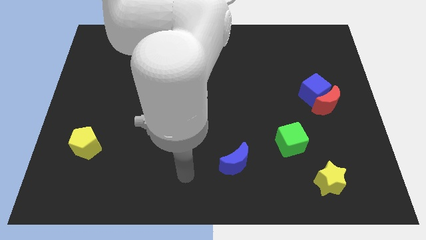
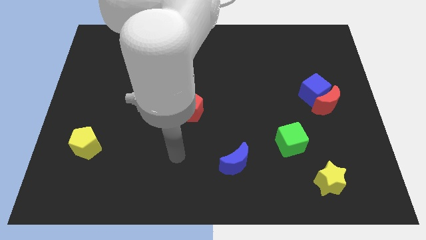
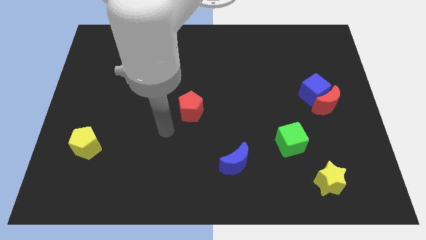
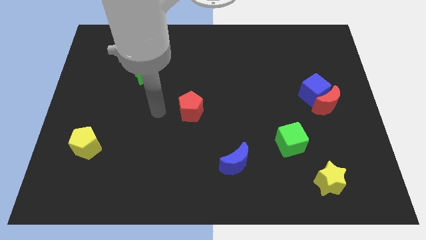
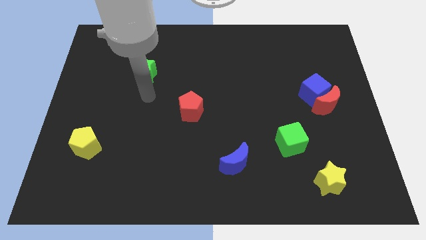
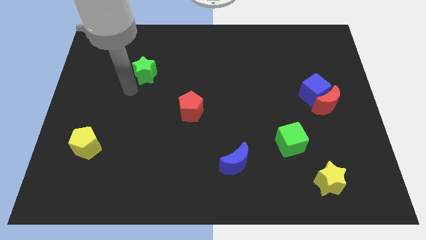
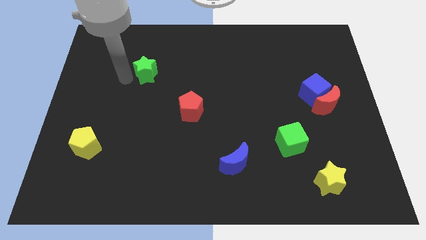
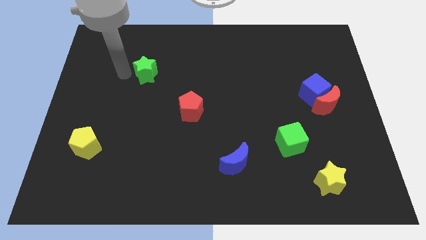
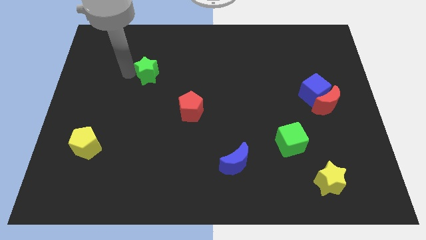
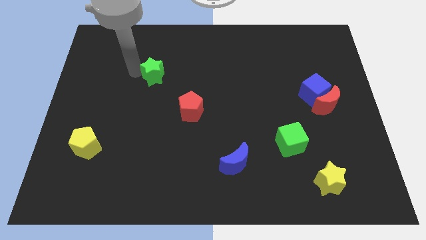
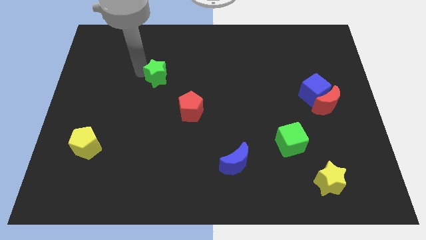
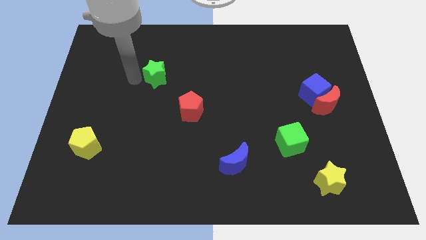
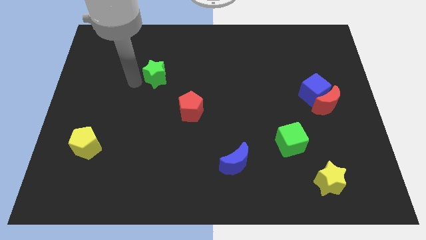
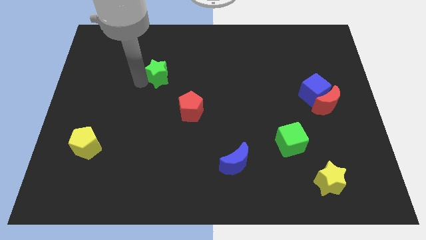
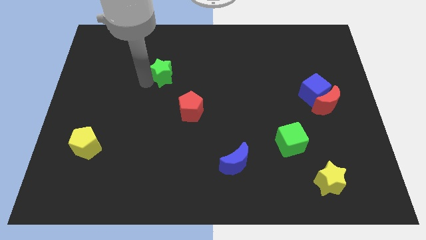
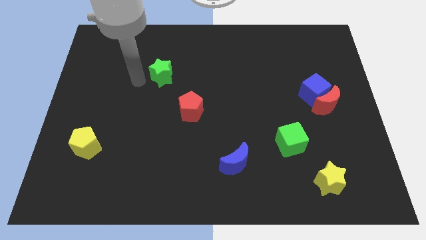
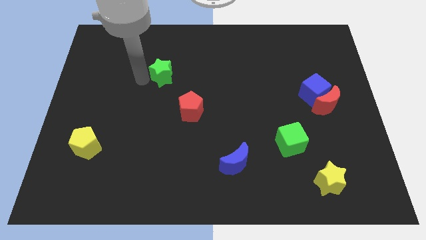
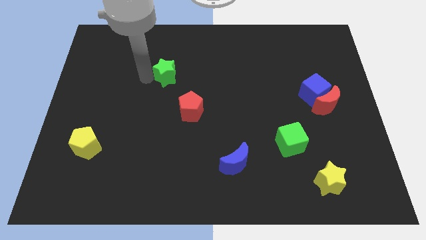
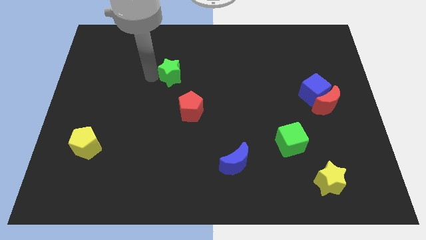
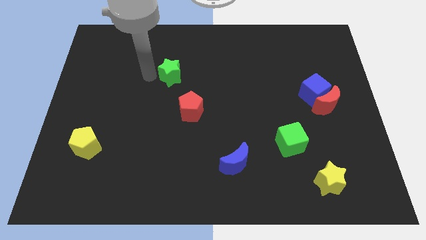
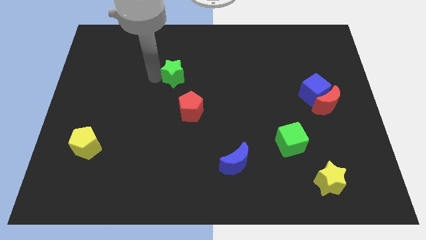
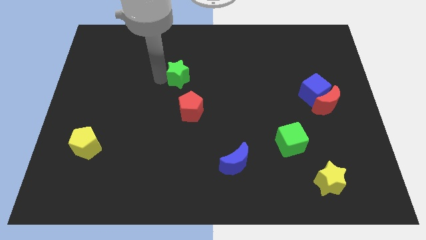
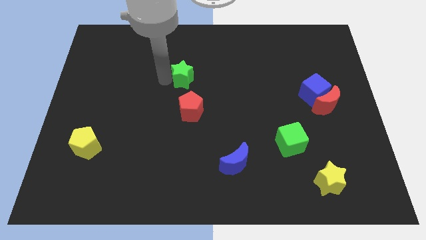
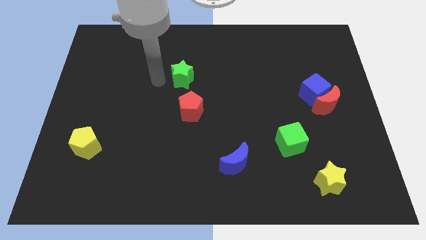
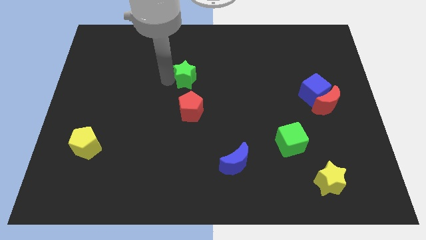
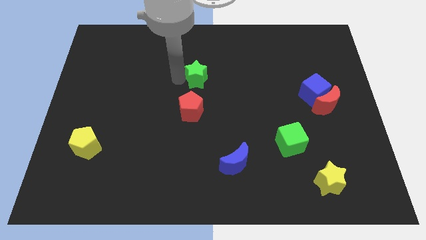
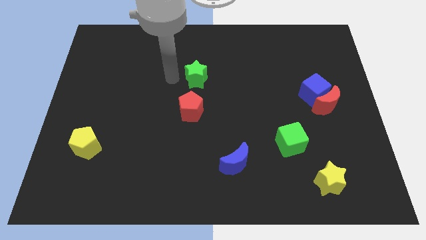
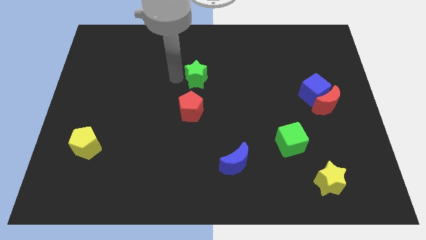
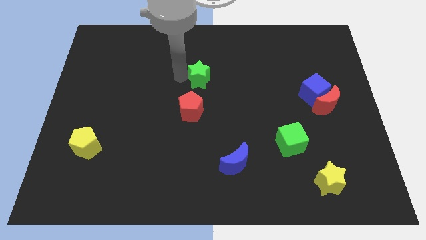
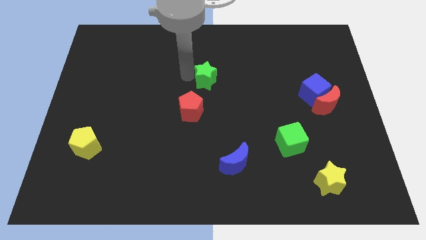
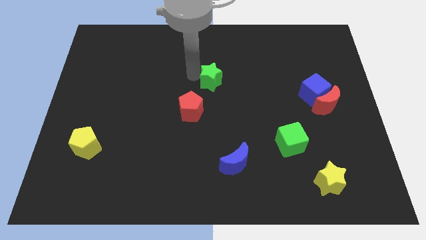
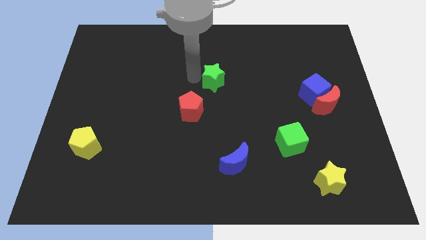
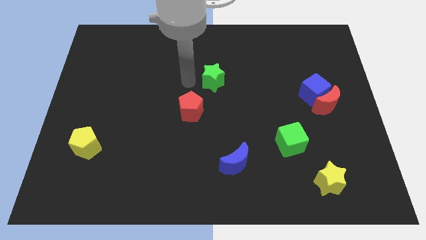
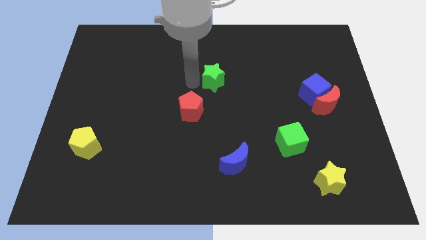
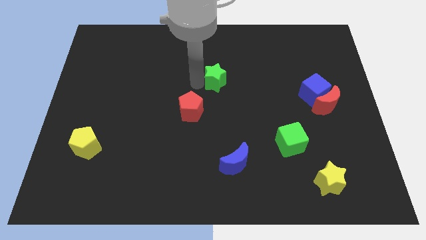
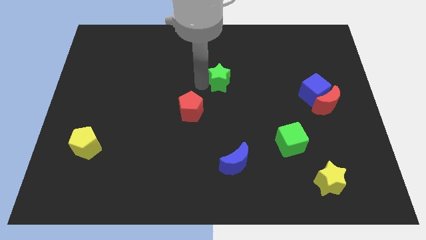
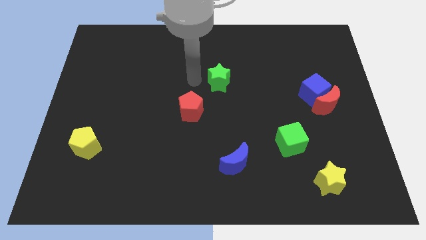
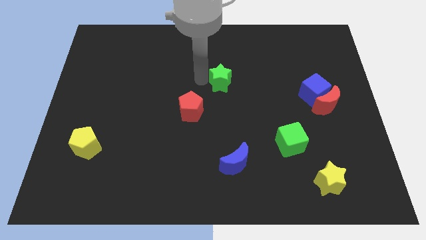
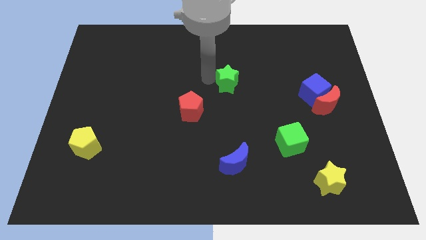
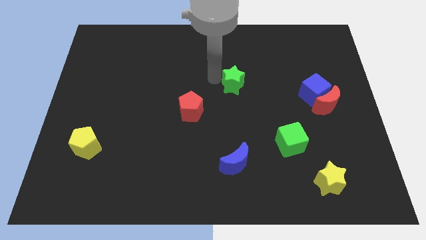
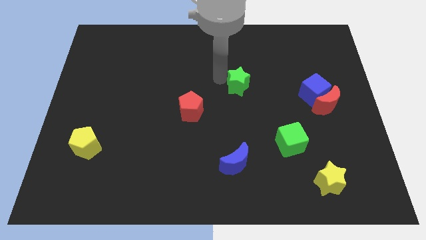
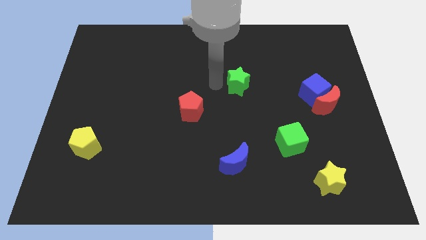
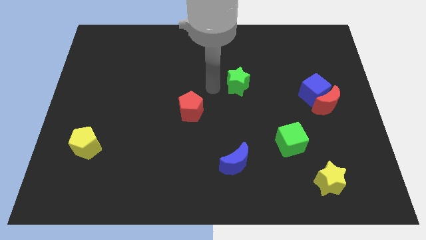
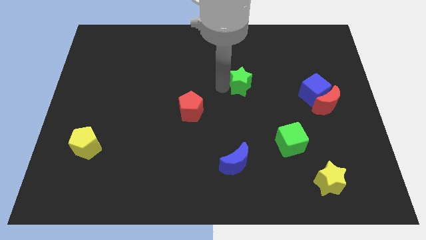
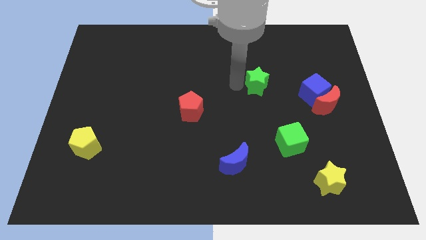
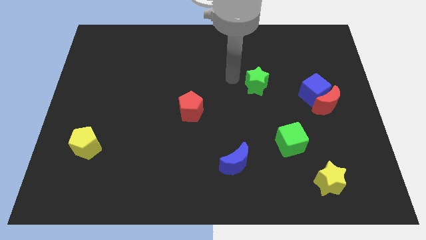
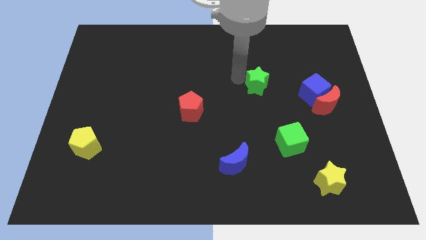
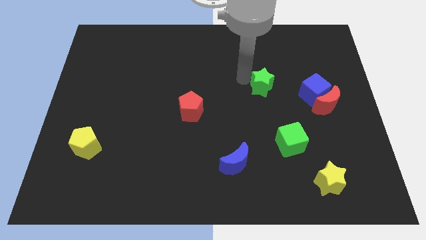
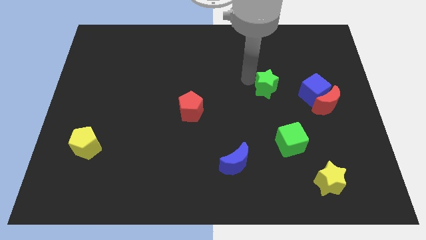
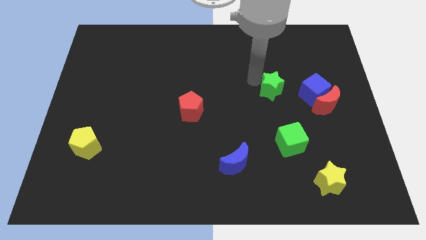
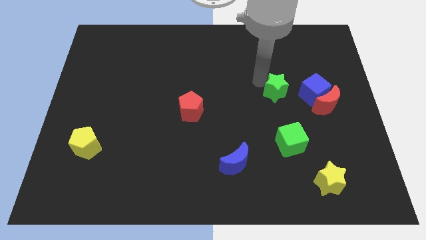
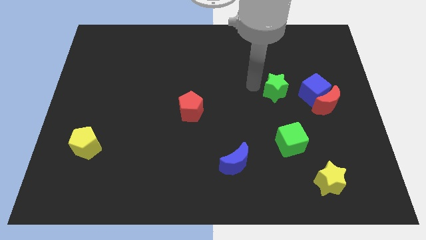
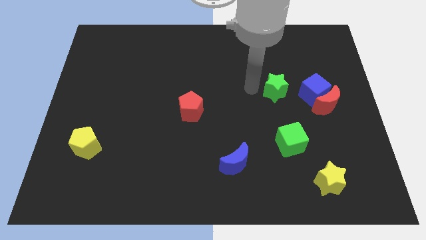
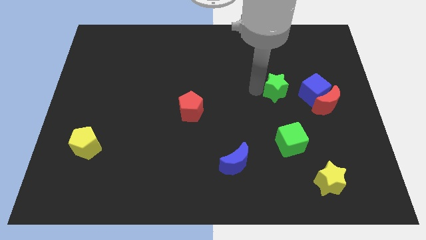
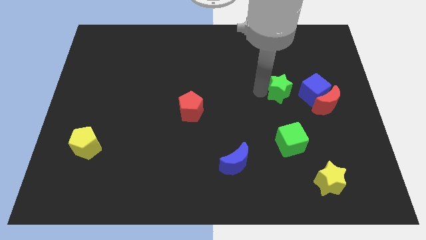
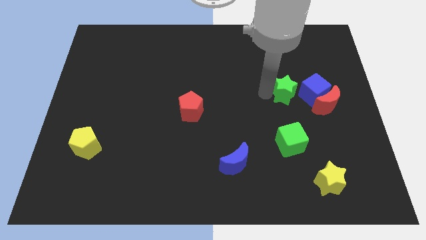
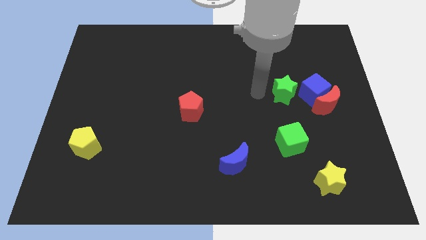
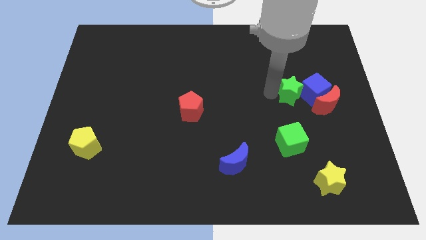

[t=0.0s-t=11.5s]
slide the green star next to the blue cube
